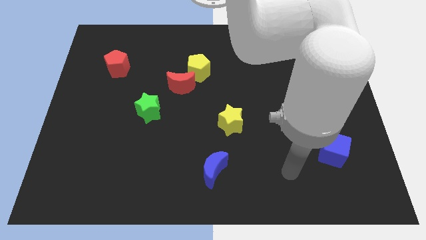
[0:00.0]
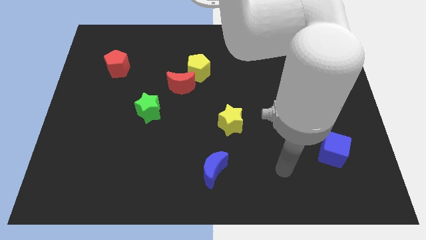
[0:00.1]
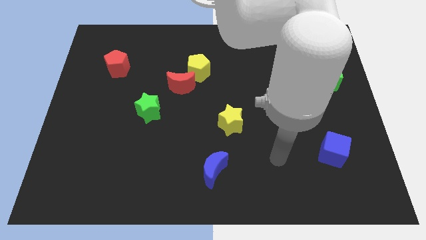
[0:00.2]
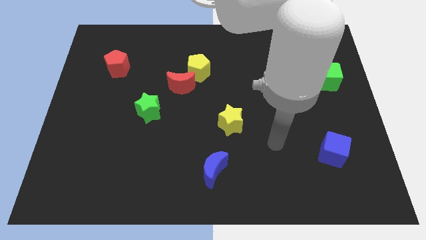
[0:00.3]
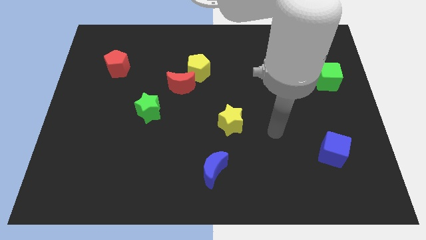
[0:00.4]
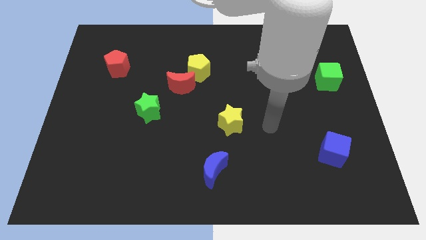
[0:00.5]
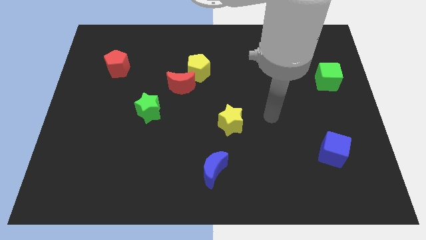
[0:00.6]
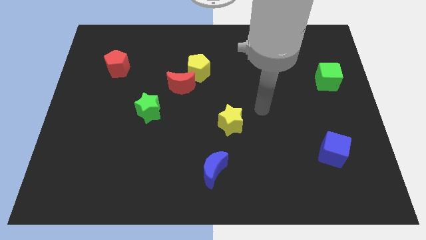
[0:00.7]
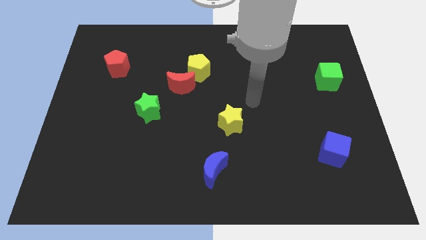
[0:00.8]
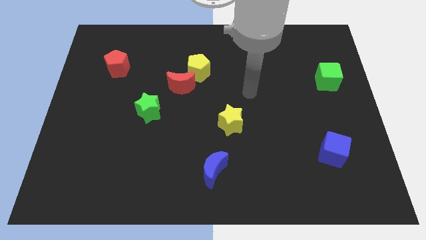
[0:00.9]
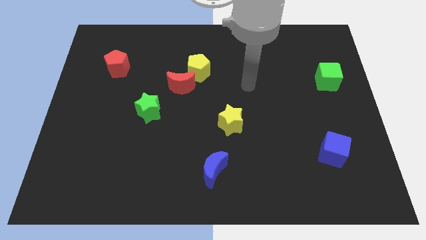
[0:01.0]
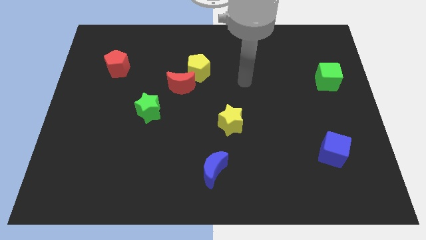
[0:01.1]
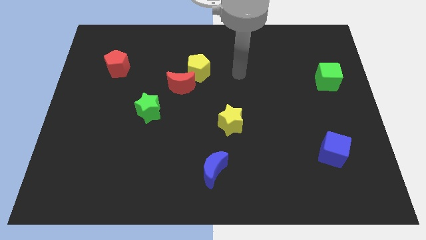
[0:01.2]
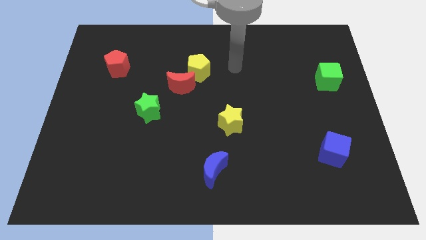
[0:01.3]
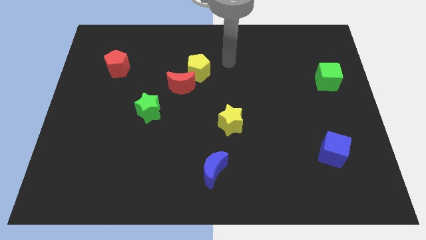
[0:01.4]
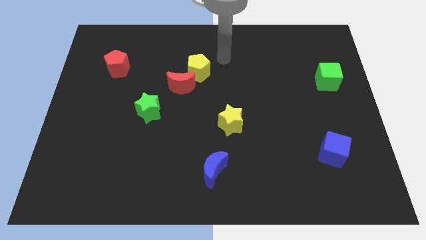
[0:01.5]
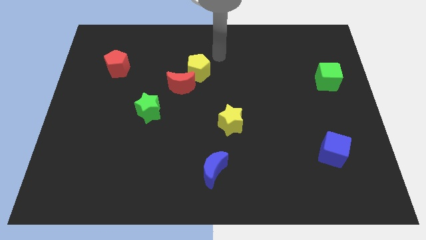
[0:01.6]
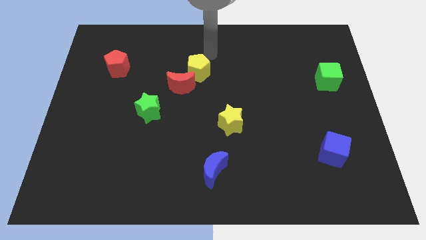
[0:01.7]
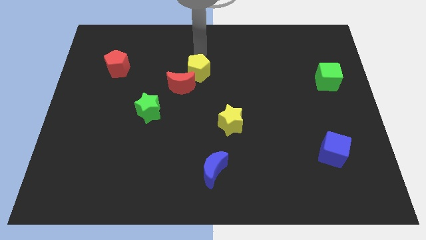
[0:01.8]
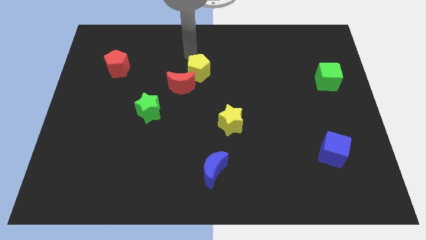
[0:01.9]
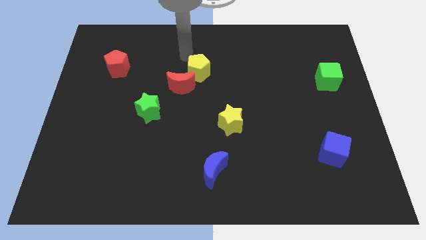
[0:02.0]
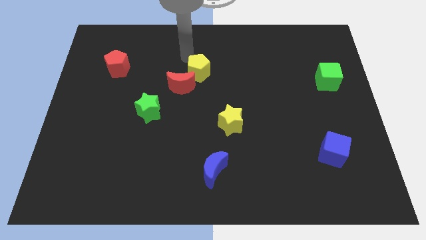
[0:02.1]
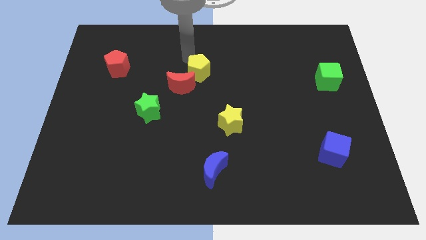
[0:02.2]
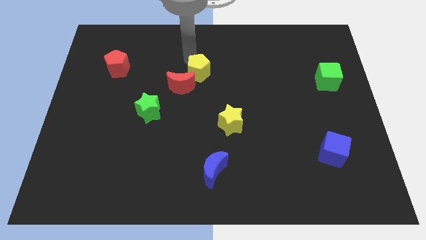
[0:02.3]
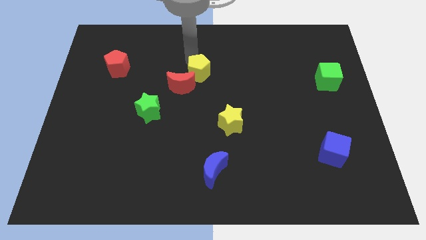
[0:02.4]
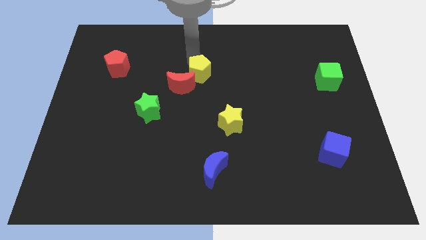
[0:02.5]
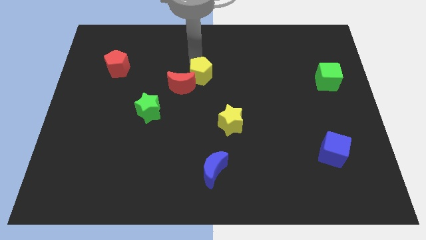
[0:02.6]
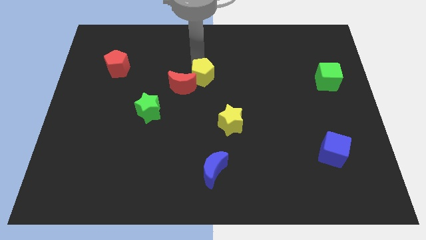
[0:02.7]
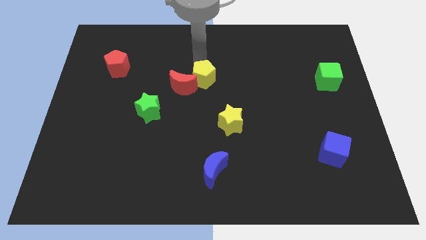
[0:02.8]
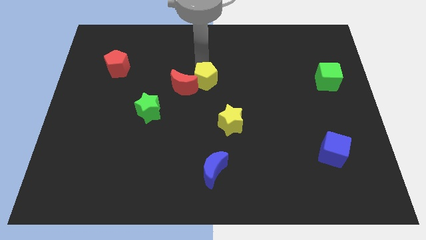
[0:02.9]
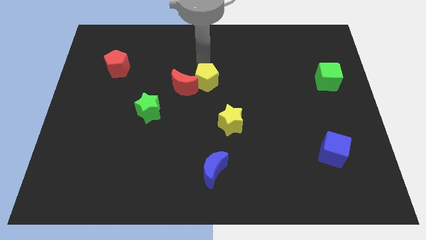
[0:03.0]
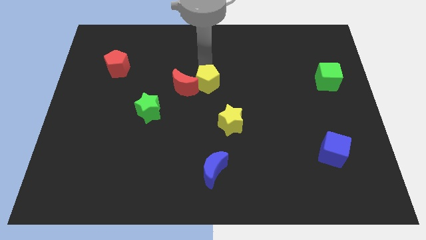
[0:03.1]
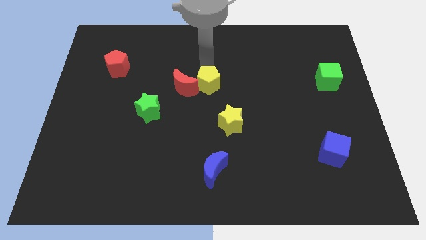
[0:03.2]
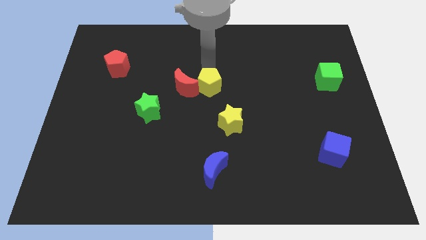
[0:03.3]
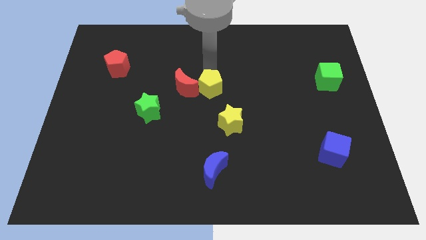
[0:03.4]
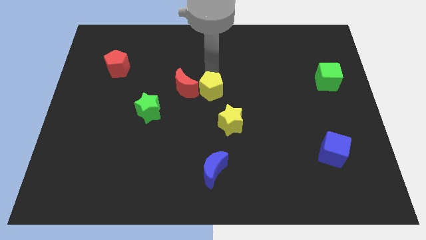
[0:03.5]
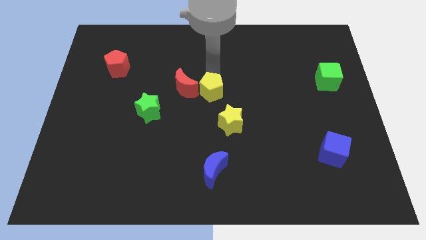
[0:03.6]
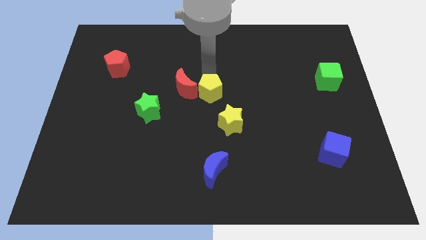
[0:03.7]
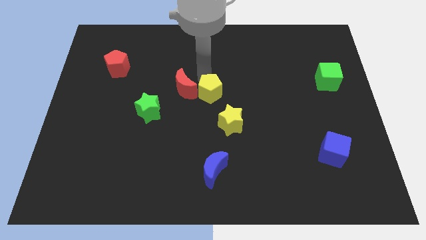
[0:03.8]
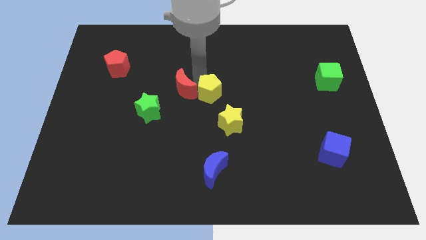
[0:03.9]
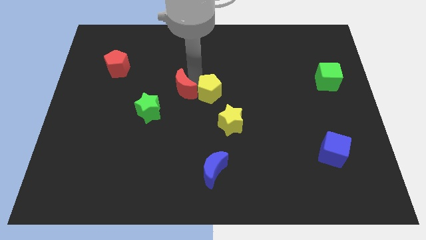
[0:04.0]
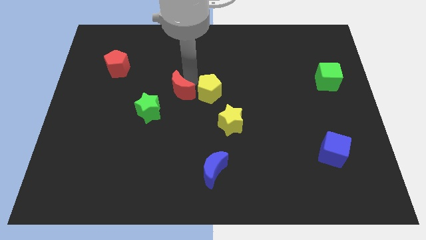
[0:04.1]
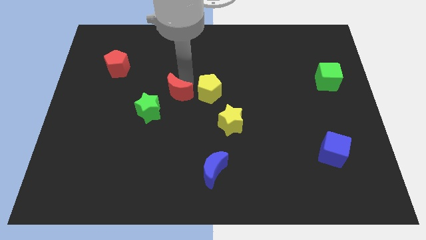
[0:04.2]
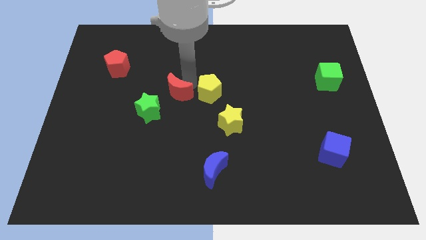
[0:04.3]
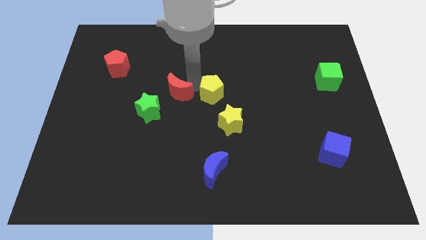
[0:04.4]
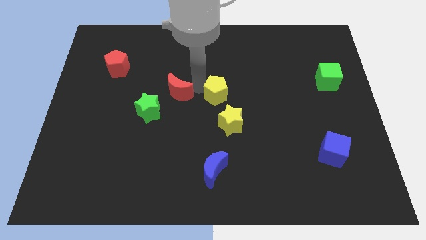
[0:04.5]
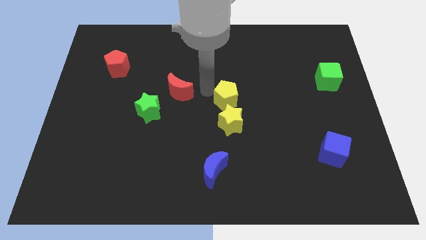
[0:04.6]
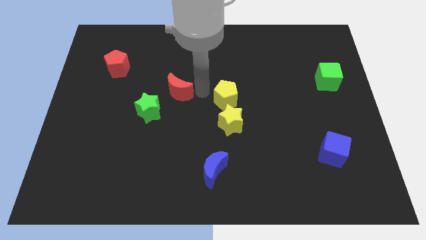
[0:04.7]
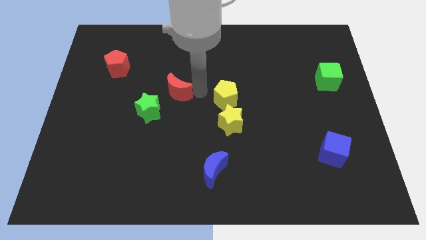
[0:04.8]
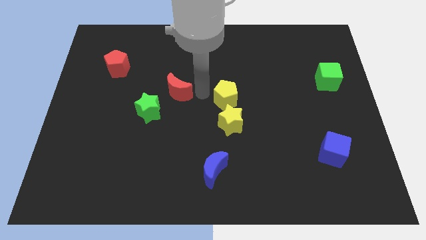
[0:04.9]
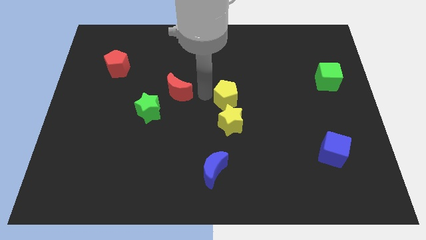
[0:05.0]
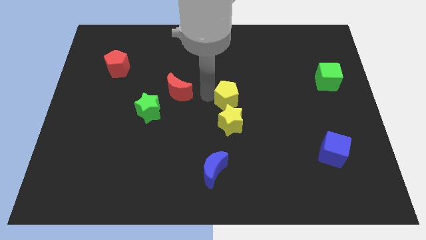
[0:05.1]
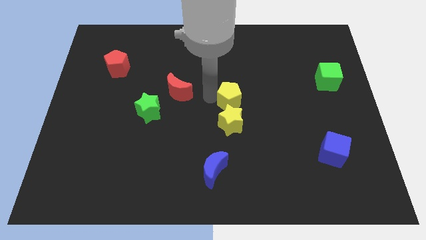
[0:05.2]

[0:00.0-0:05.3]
move the yellow pentagon to the top right of the yellow star

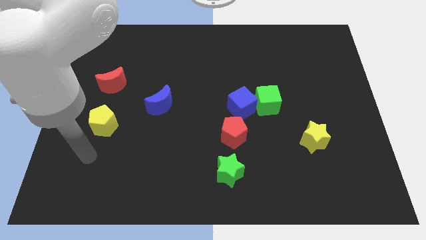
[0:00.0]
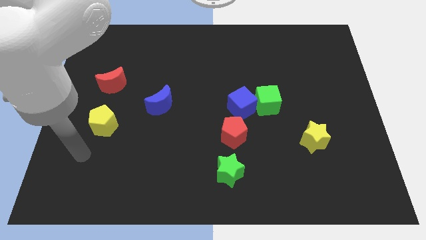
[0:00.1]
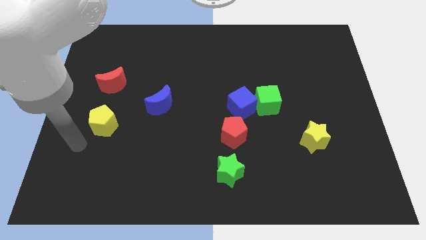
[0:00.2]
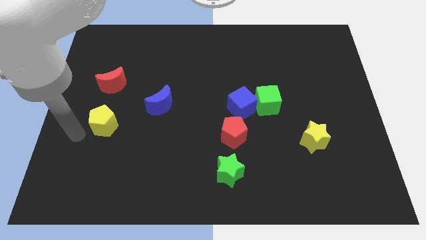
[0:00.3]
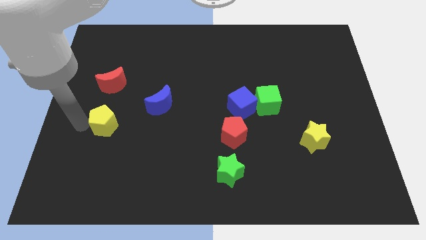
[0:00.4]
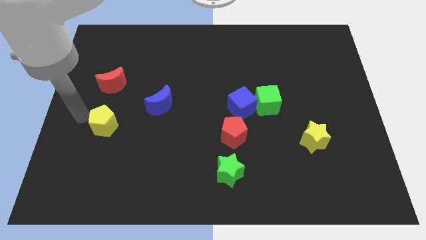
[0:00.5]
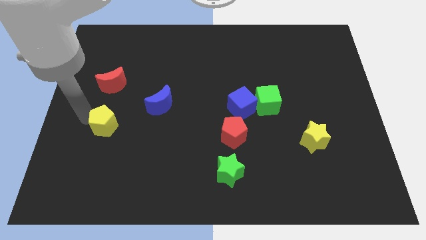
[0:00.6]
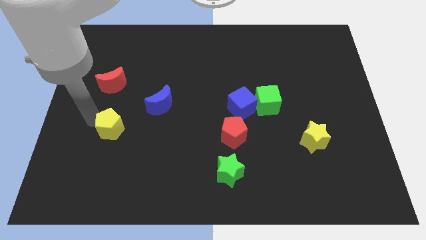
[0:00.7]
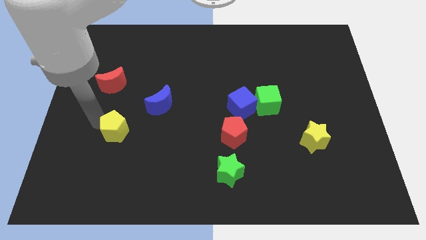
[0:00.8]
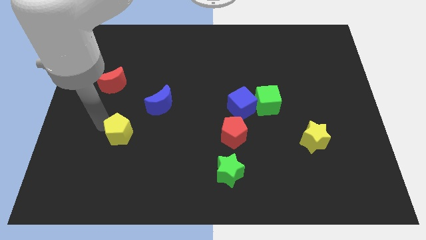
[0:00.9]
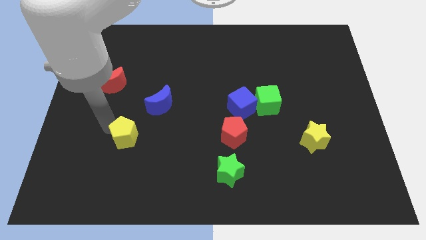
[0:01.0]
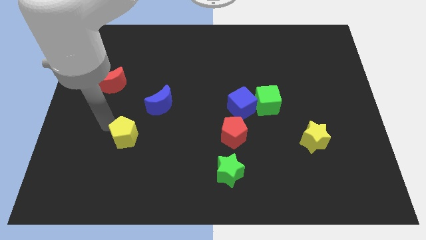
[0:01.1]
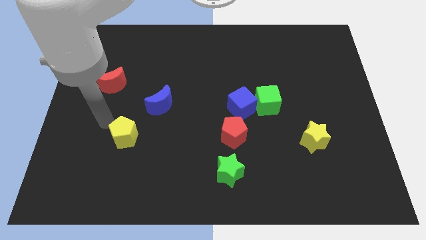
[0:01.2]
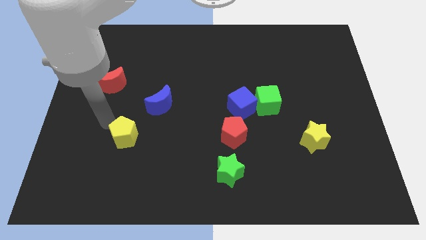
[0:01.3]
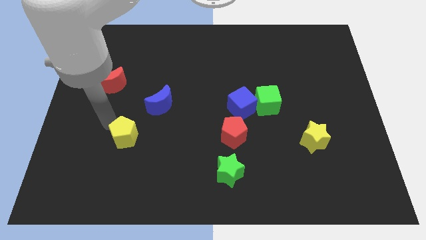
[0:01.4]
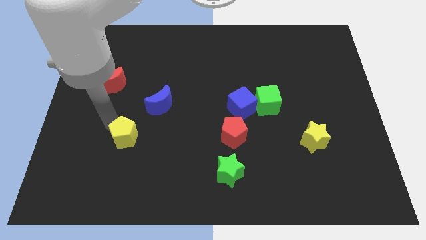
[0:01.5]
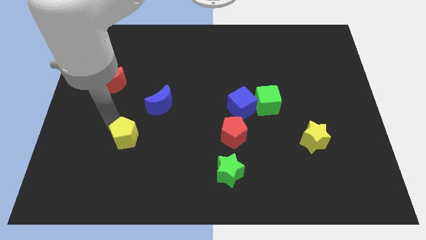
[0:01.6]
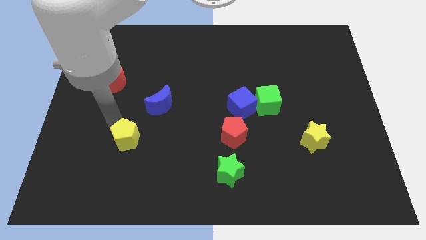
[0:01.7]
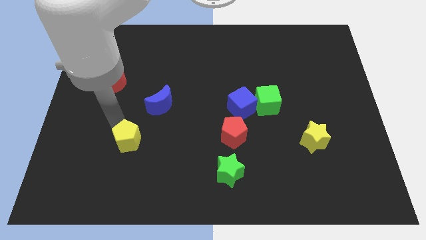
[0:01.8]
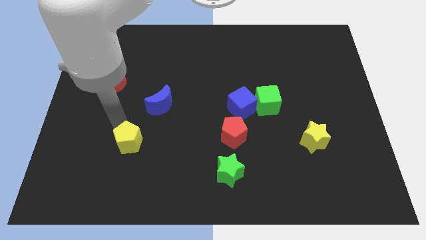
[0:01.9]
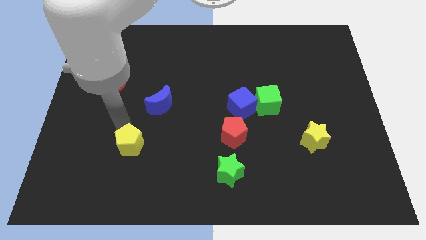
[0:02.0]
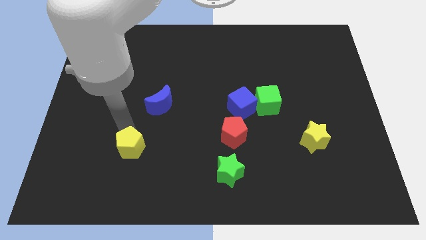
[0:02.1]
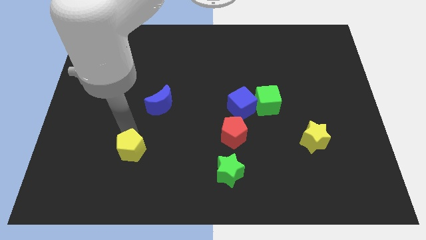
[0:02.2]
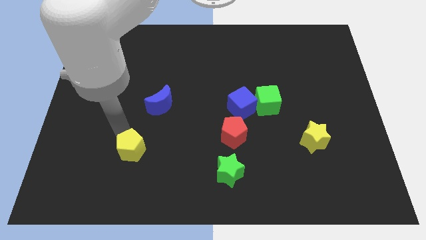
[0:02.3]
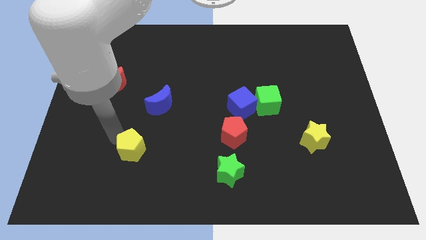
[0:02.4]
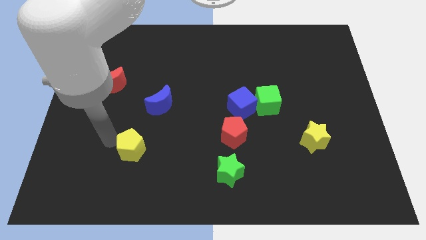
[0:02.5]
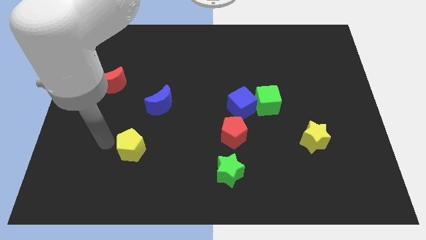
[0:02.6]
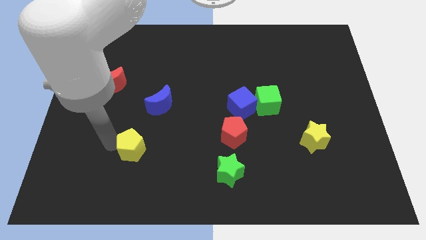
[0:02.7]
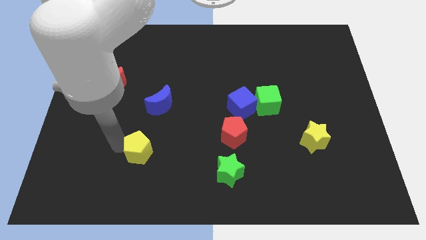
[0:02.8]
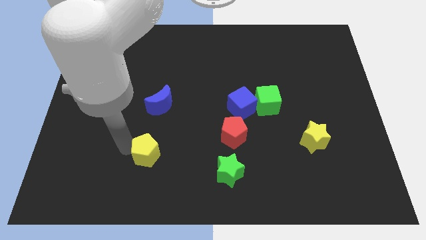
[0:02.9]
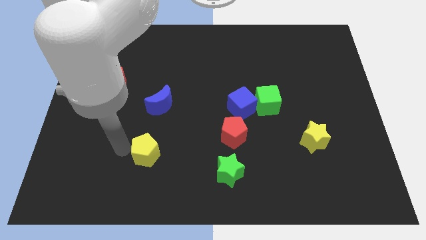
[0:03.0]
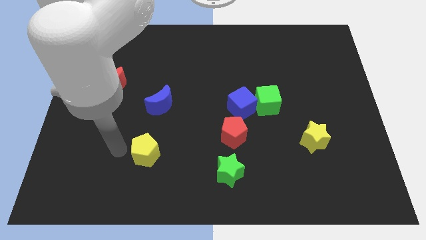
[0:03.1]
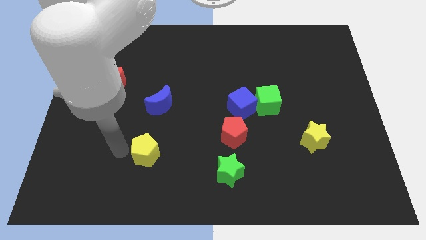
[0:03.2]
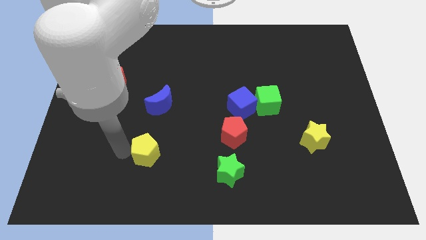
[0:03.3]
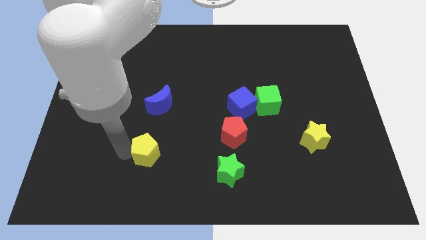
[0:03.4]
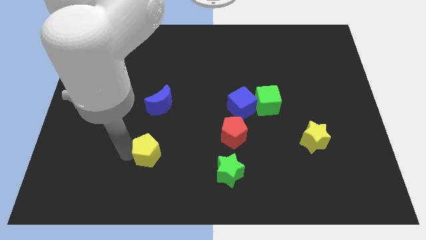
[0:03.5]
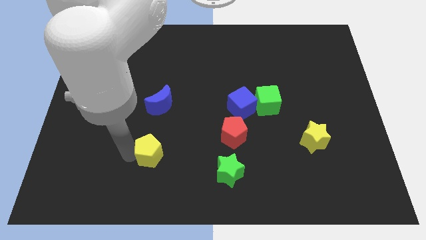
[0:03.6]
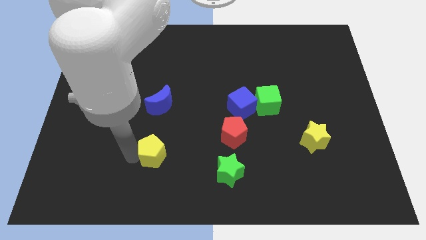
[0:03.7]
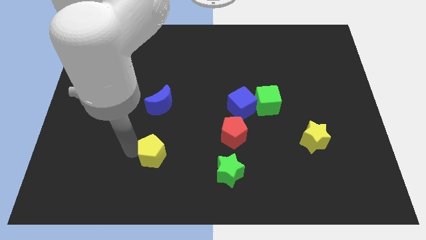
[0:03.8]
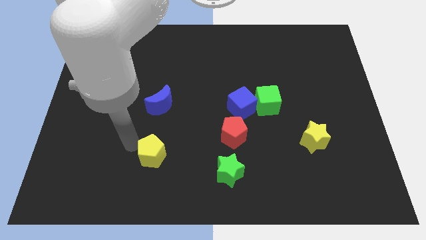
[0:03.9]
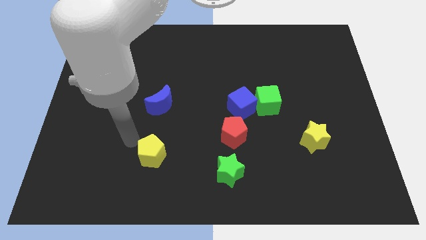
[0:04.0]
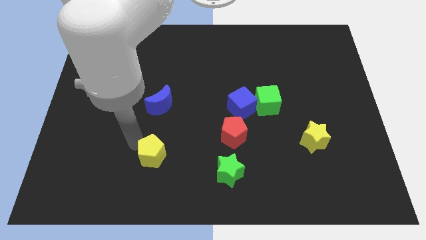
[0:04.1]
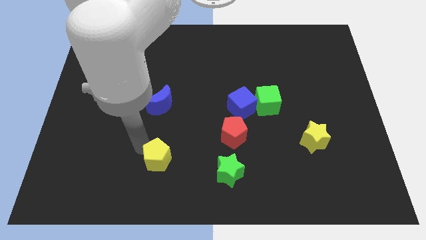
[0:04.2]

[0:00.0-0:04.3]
put the yellow pentagon to the left of the green star
